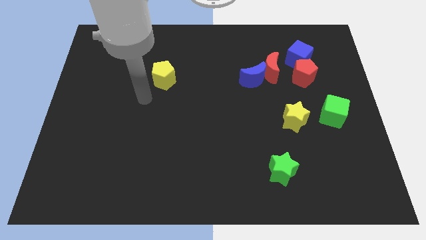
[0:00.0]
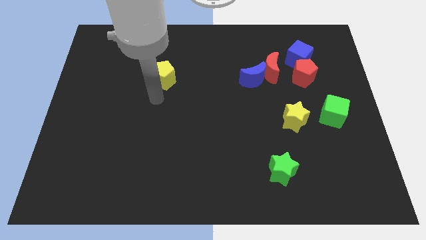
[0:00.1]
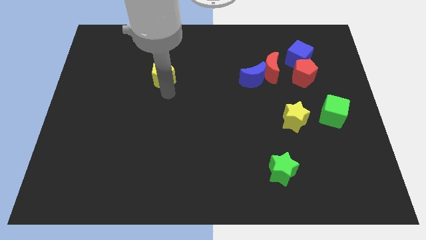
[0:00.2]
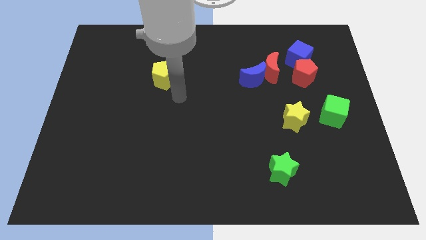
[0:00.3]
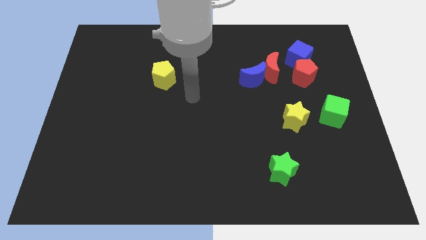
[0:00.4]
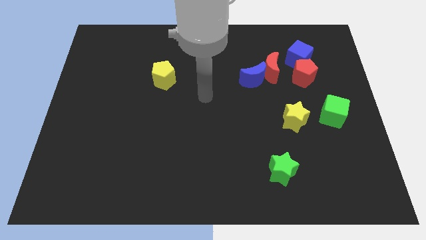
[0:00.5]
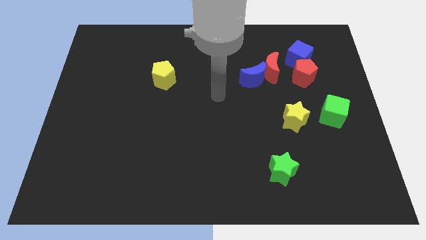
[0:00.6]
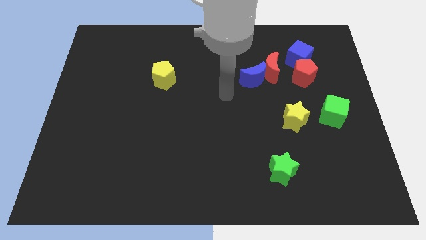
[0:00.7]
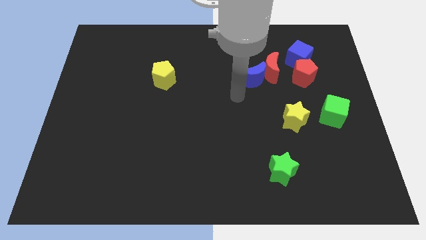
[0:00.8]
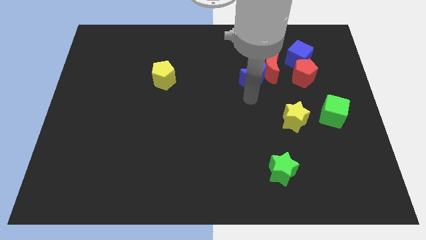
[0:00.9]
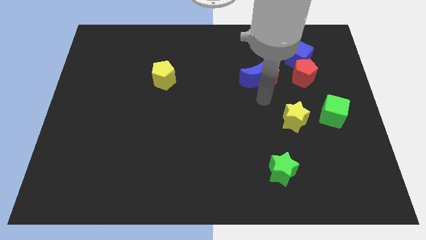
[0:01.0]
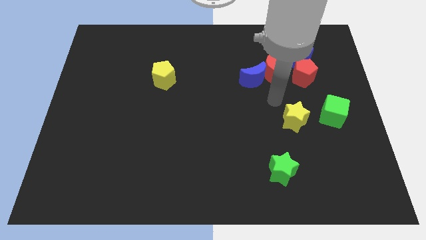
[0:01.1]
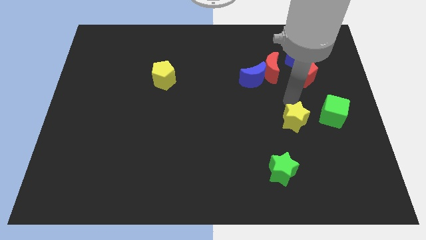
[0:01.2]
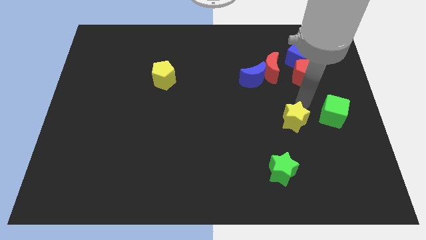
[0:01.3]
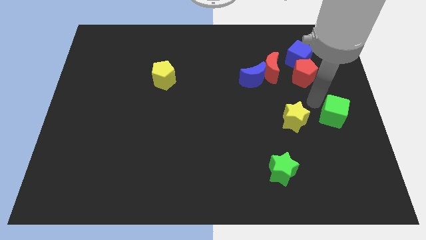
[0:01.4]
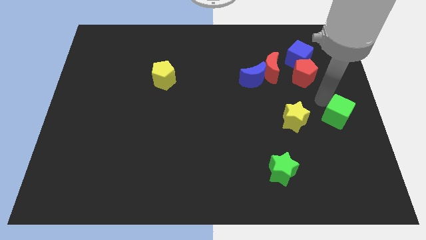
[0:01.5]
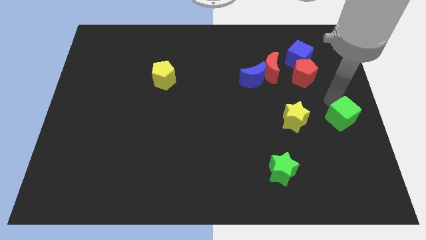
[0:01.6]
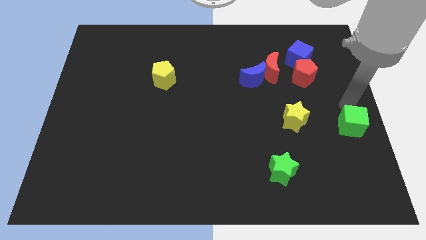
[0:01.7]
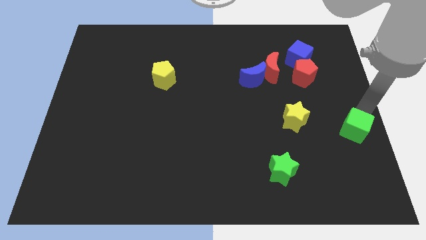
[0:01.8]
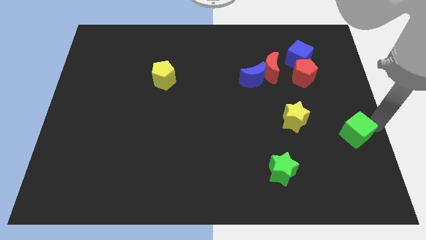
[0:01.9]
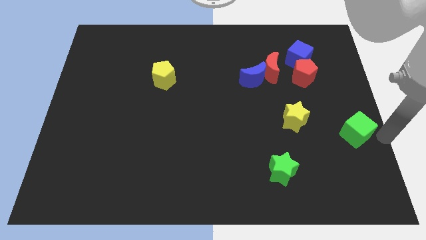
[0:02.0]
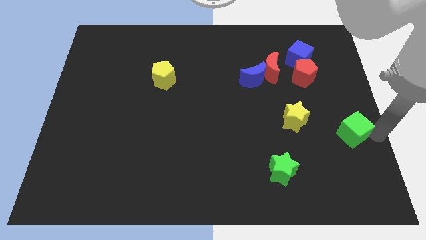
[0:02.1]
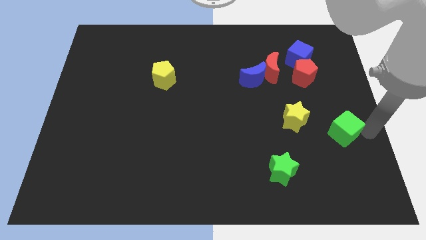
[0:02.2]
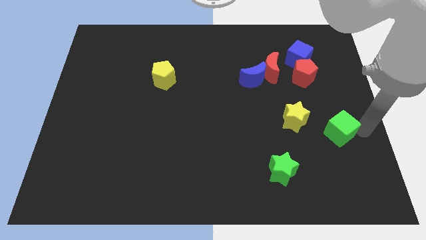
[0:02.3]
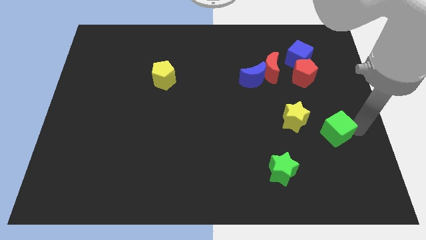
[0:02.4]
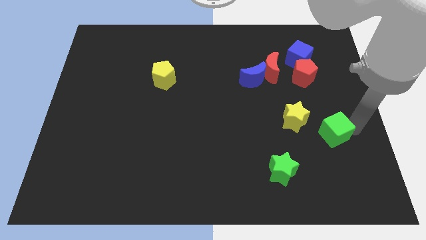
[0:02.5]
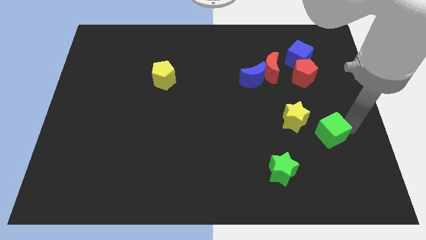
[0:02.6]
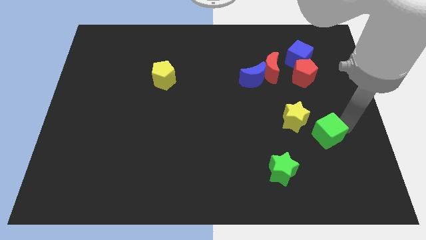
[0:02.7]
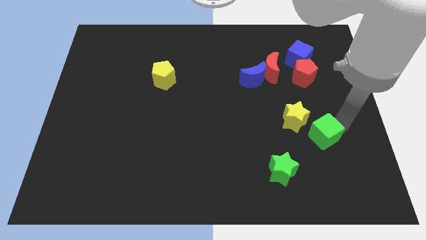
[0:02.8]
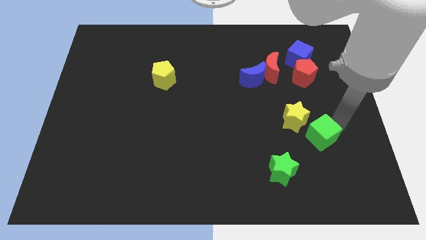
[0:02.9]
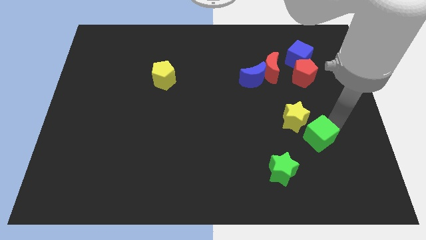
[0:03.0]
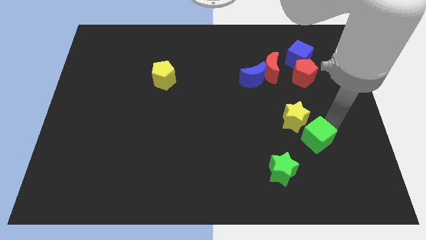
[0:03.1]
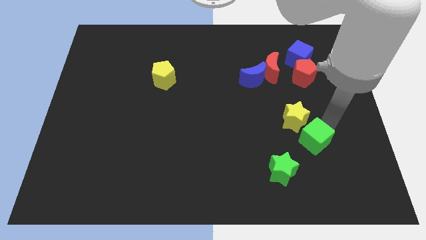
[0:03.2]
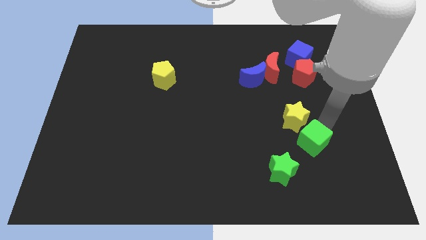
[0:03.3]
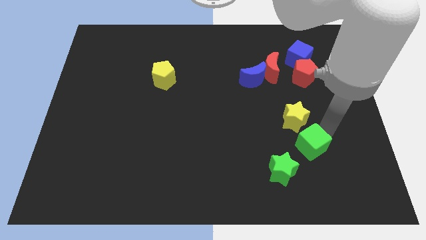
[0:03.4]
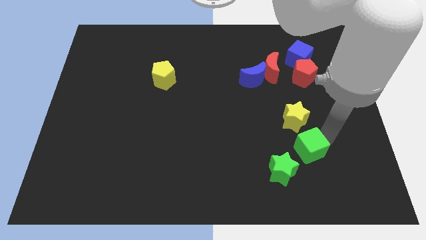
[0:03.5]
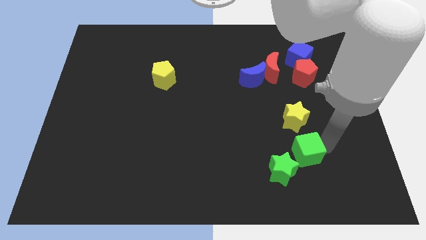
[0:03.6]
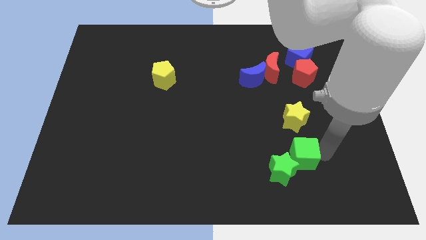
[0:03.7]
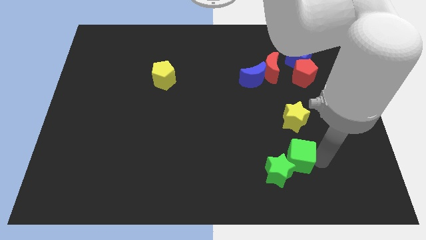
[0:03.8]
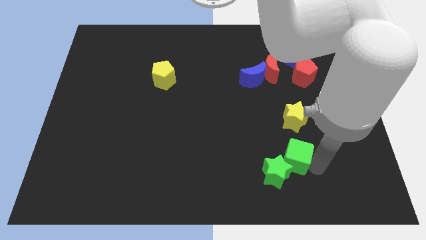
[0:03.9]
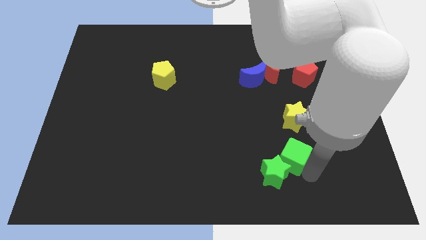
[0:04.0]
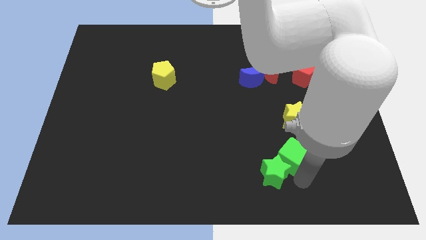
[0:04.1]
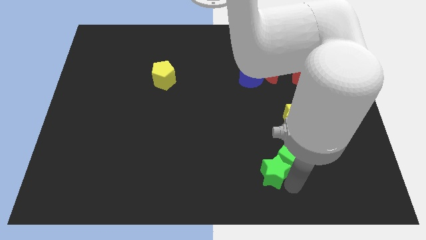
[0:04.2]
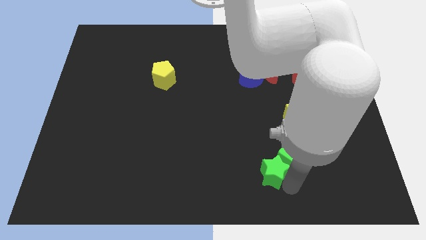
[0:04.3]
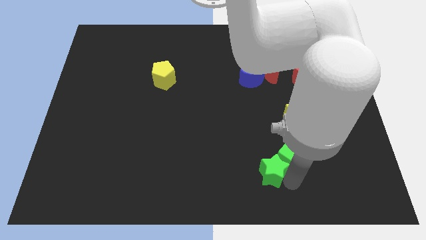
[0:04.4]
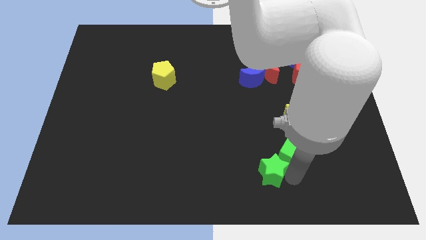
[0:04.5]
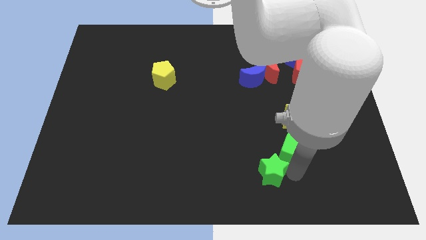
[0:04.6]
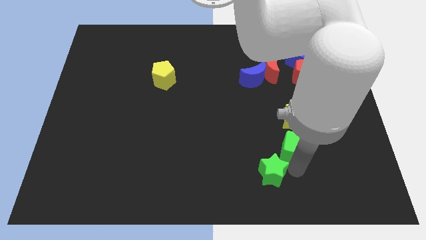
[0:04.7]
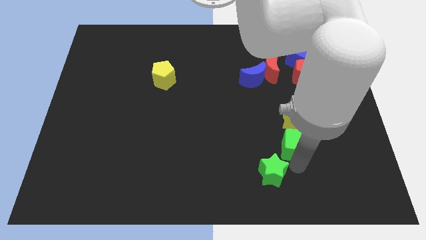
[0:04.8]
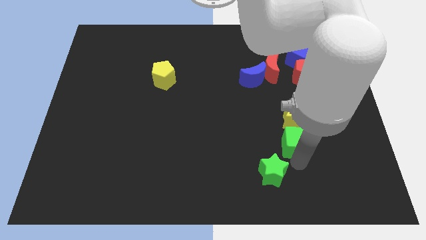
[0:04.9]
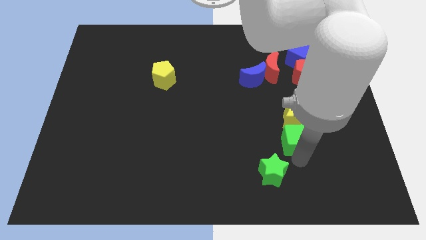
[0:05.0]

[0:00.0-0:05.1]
put the green cube next to the yellow star

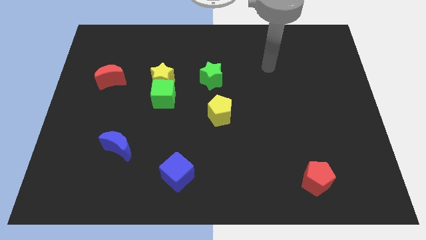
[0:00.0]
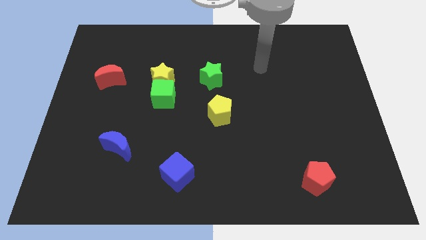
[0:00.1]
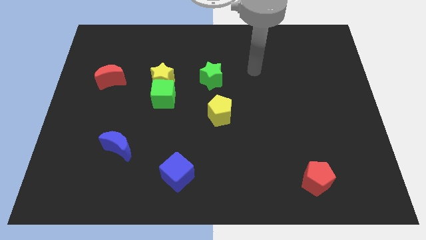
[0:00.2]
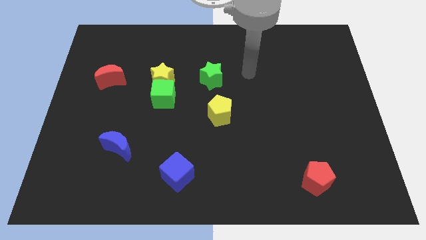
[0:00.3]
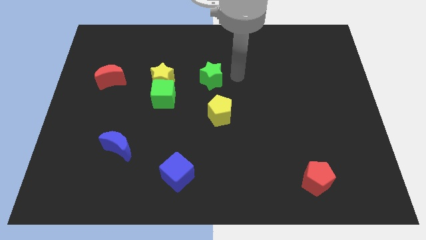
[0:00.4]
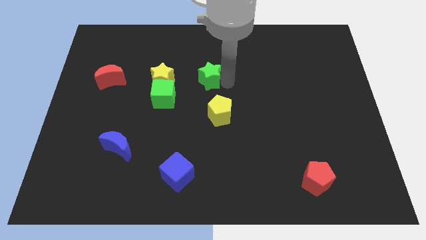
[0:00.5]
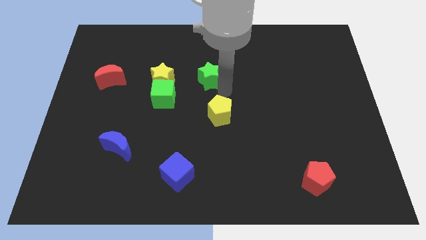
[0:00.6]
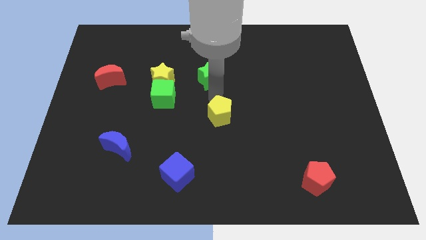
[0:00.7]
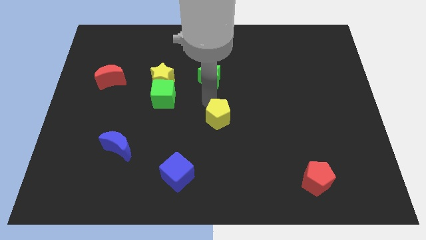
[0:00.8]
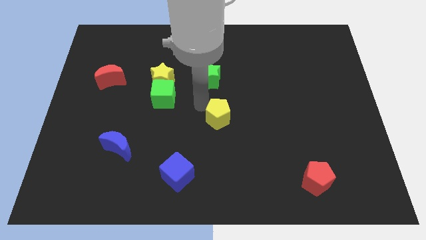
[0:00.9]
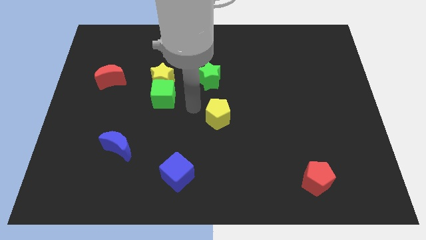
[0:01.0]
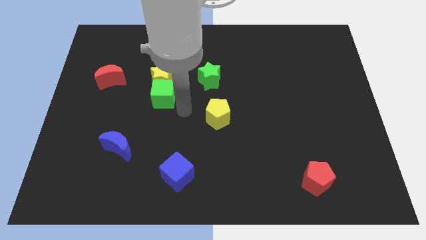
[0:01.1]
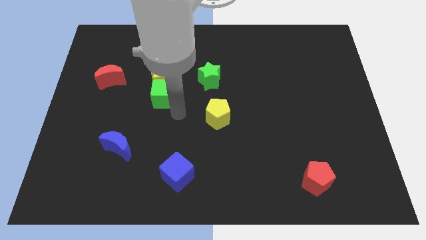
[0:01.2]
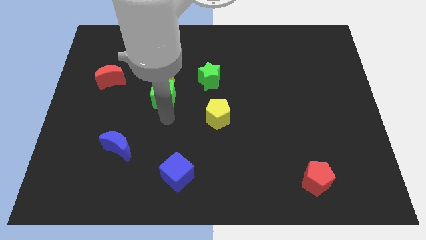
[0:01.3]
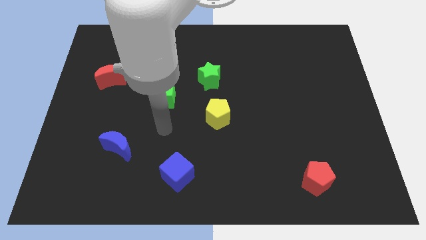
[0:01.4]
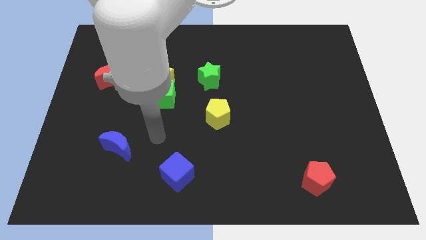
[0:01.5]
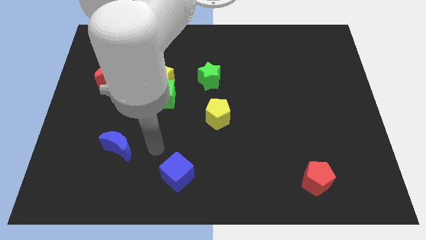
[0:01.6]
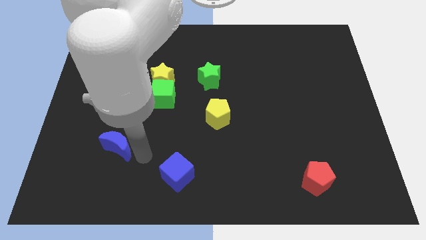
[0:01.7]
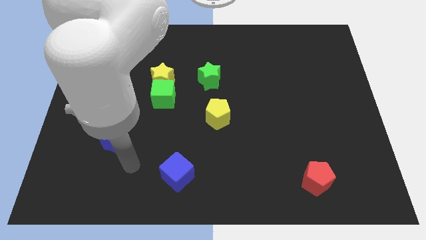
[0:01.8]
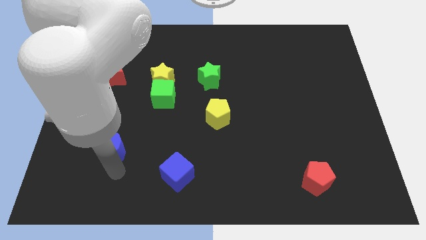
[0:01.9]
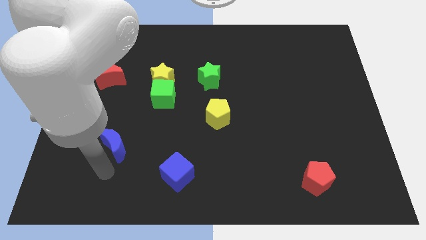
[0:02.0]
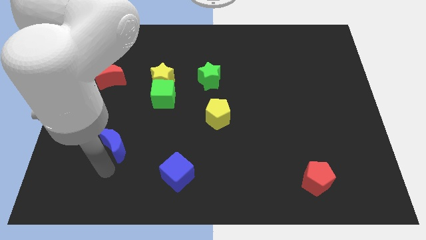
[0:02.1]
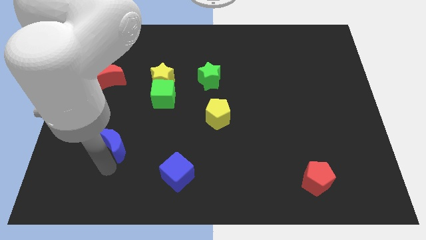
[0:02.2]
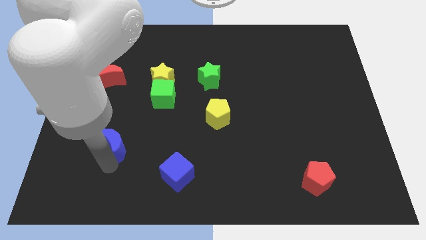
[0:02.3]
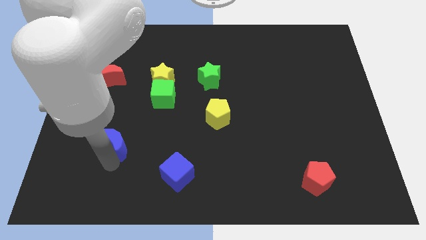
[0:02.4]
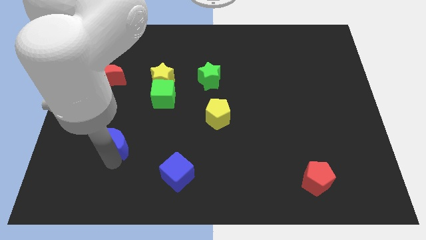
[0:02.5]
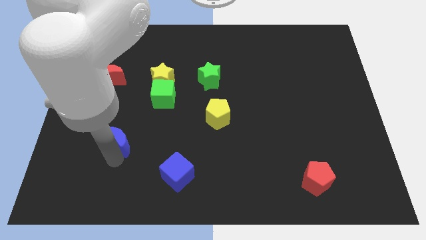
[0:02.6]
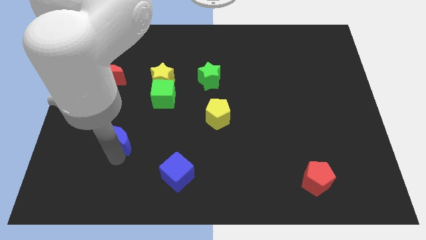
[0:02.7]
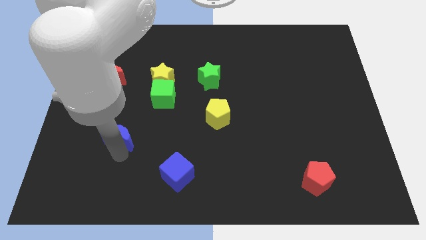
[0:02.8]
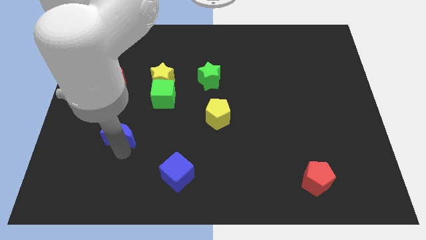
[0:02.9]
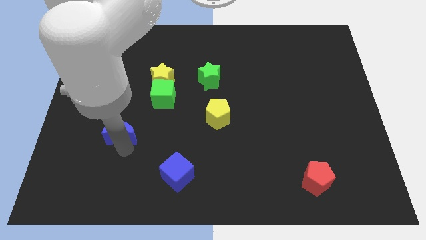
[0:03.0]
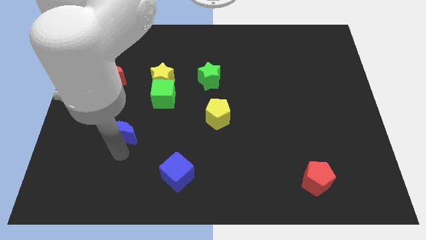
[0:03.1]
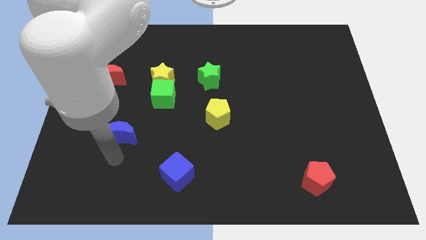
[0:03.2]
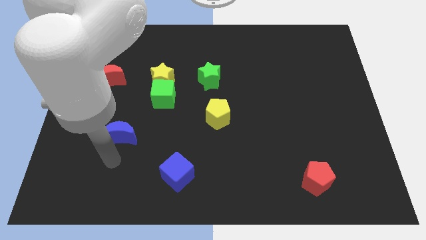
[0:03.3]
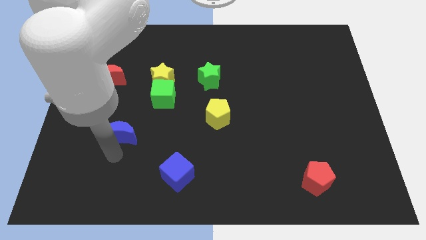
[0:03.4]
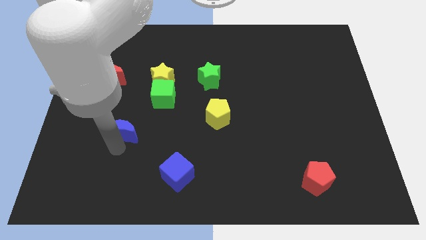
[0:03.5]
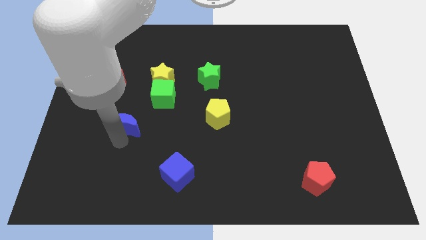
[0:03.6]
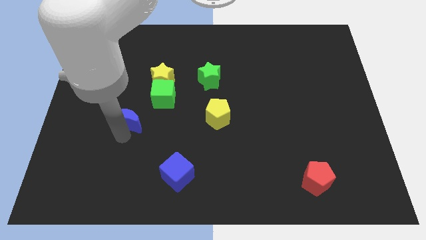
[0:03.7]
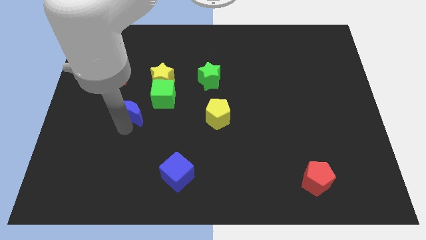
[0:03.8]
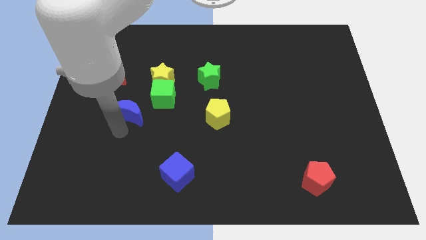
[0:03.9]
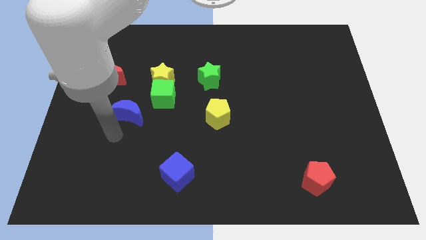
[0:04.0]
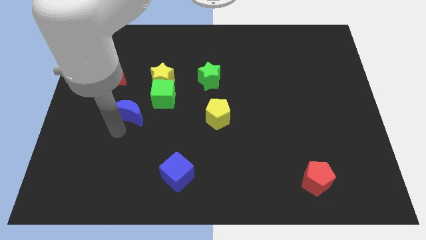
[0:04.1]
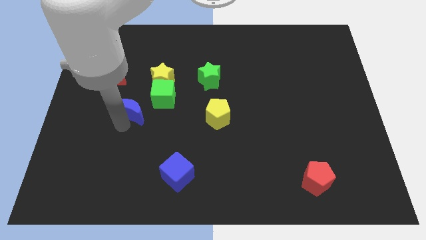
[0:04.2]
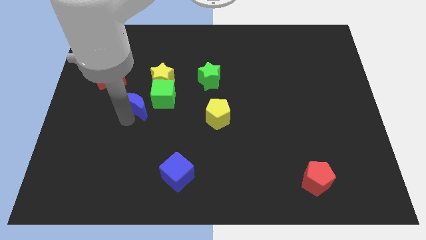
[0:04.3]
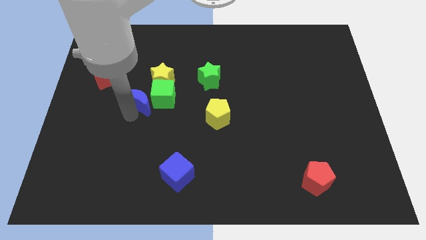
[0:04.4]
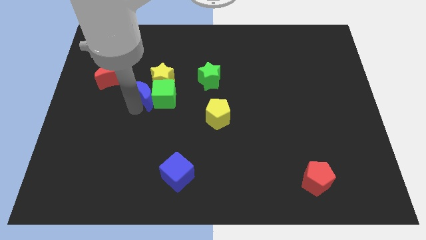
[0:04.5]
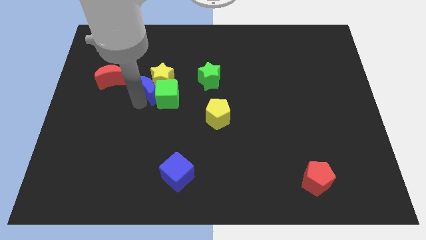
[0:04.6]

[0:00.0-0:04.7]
put the blue moon next to the yellow star
